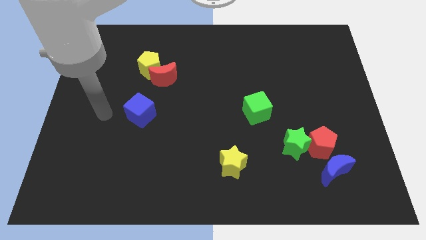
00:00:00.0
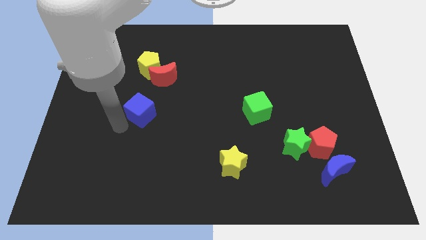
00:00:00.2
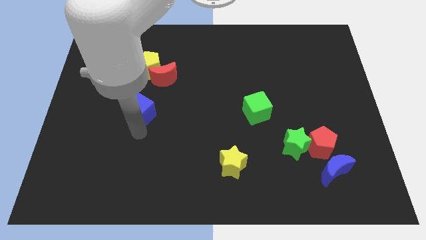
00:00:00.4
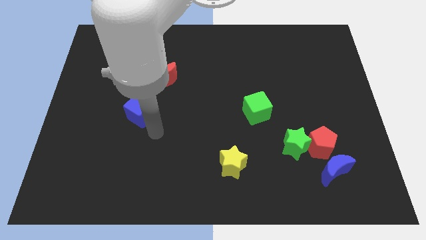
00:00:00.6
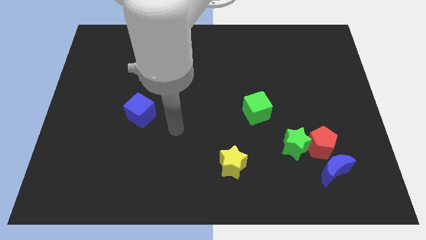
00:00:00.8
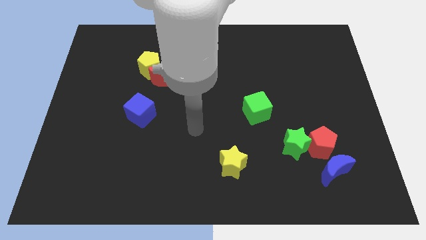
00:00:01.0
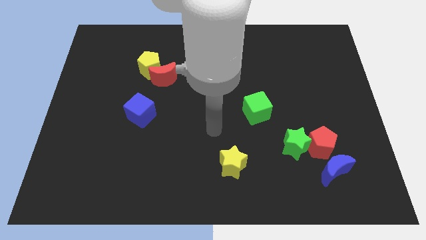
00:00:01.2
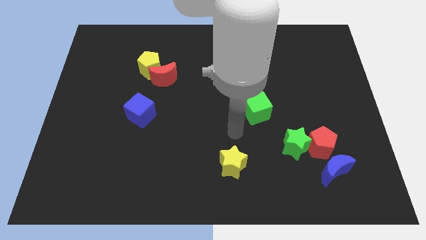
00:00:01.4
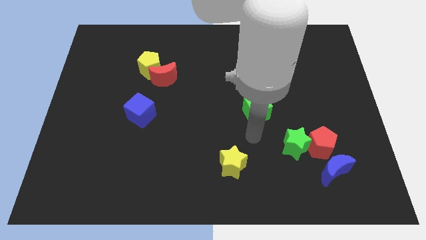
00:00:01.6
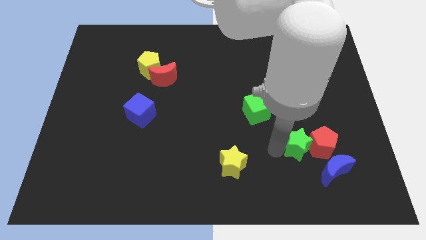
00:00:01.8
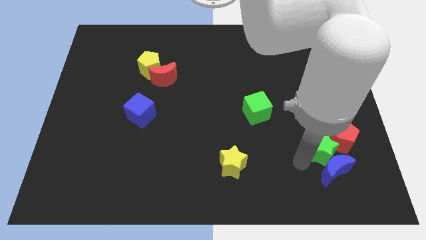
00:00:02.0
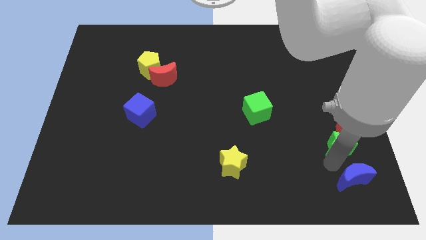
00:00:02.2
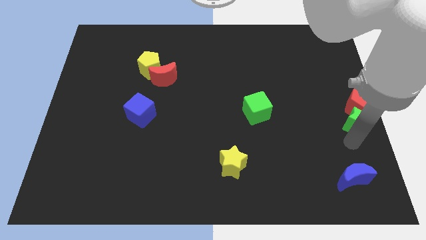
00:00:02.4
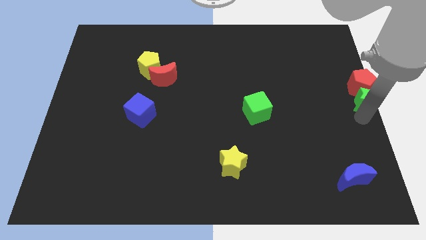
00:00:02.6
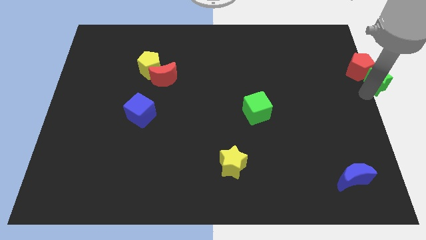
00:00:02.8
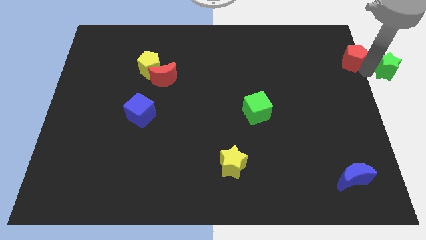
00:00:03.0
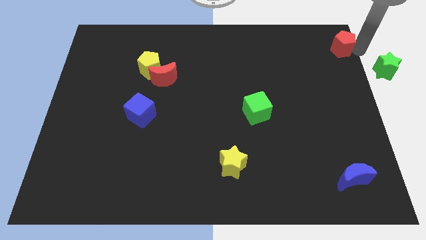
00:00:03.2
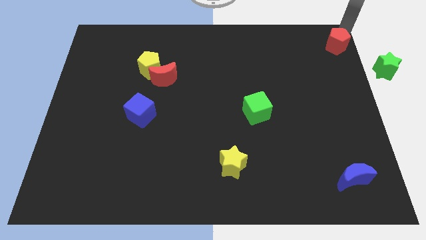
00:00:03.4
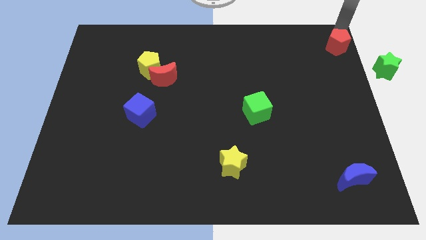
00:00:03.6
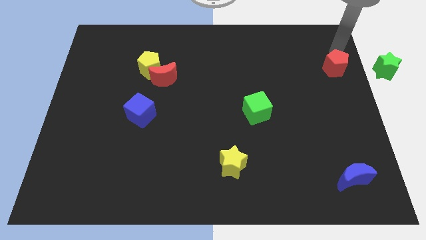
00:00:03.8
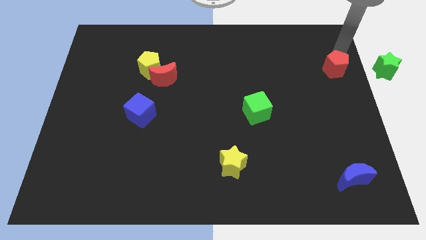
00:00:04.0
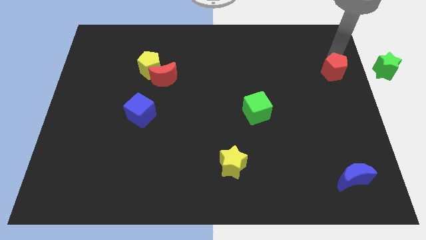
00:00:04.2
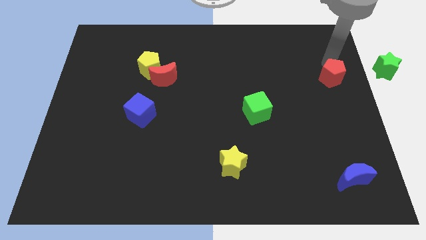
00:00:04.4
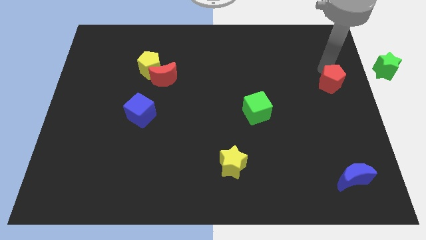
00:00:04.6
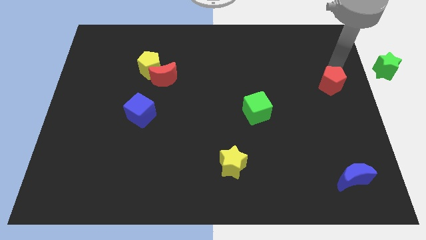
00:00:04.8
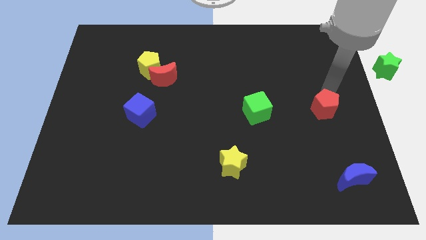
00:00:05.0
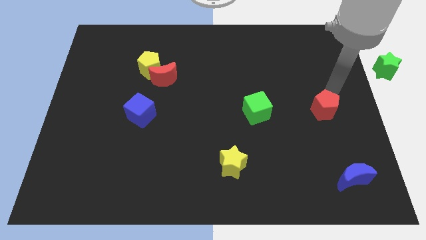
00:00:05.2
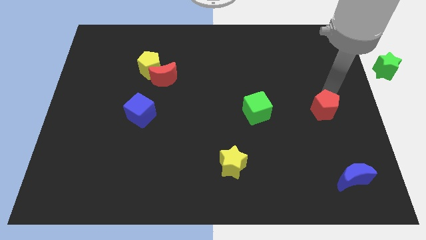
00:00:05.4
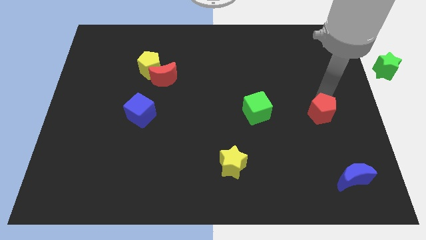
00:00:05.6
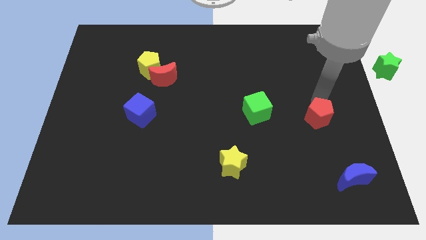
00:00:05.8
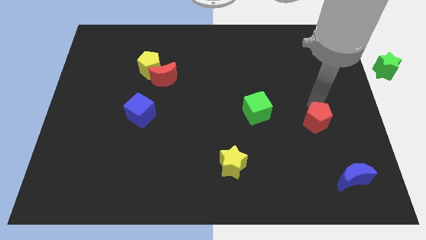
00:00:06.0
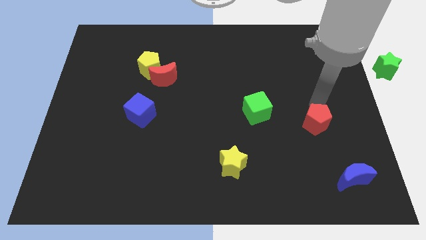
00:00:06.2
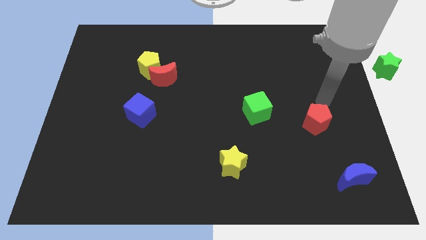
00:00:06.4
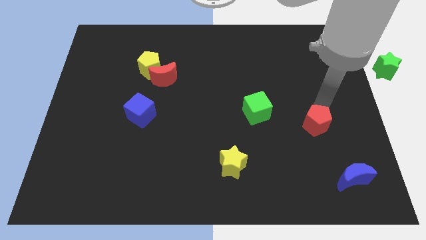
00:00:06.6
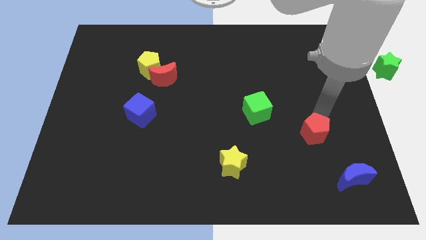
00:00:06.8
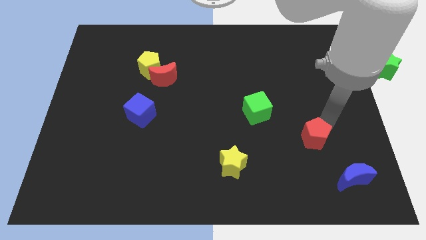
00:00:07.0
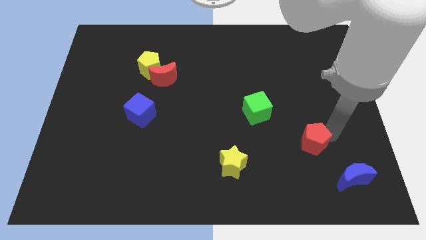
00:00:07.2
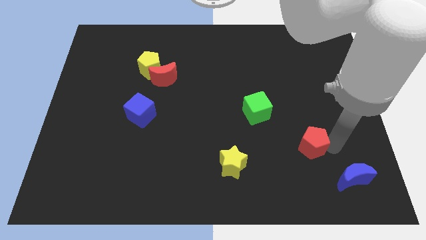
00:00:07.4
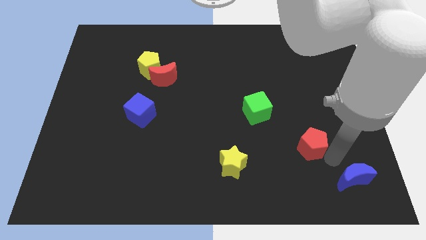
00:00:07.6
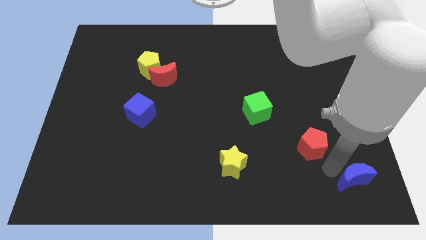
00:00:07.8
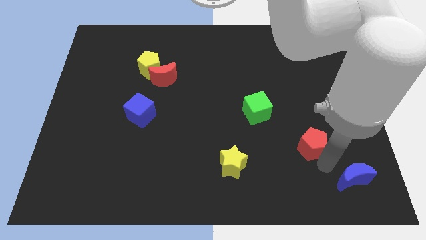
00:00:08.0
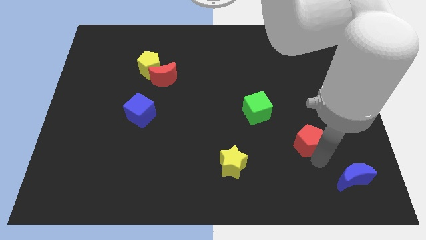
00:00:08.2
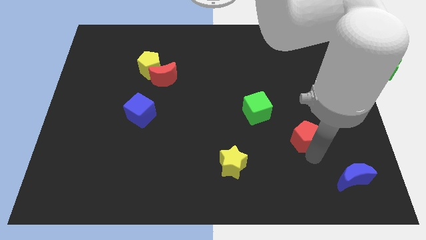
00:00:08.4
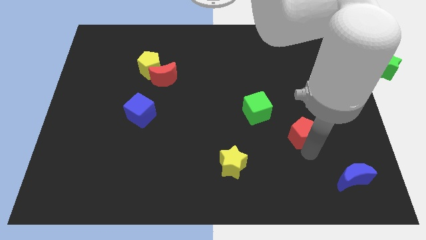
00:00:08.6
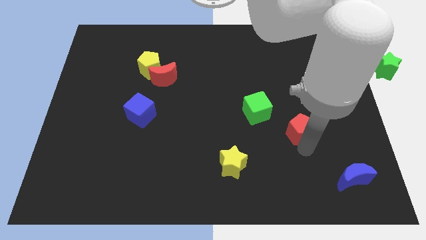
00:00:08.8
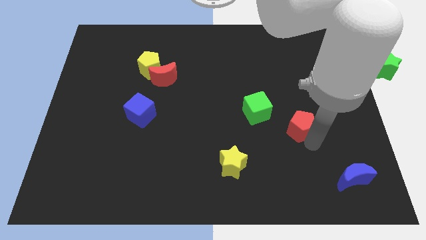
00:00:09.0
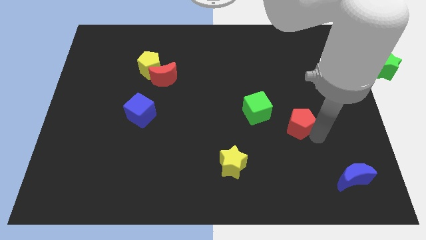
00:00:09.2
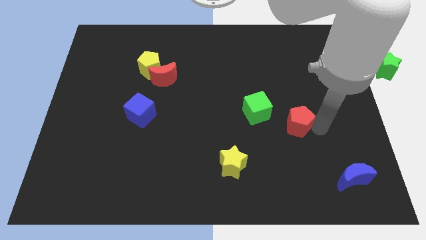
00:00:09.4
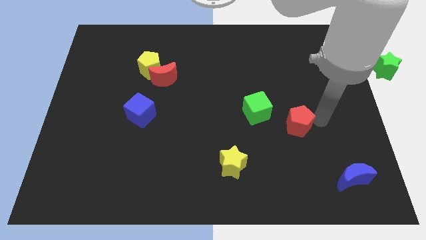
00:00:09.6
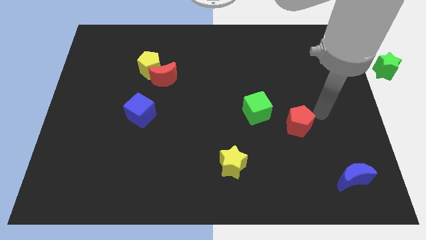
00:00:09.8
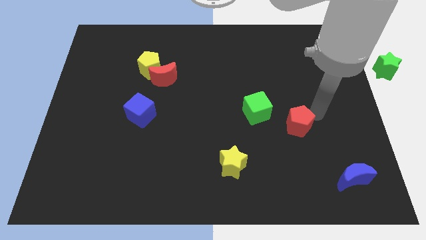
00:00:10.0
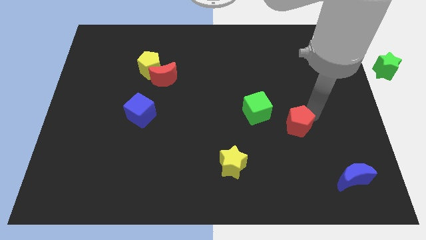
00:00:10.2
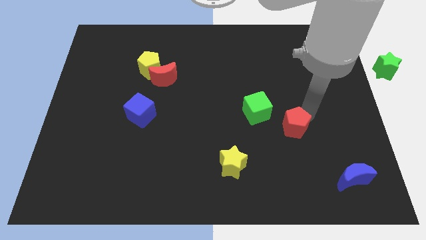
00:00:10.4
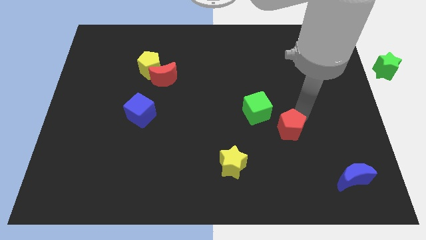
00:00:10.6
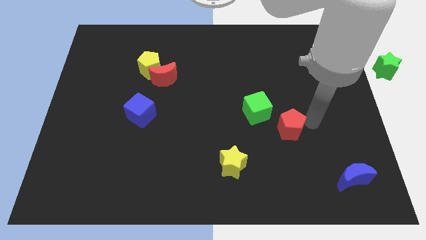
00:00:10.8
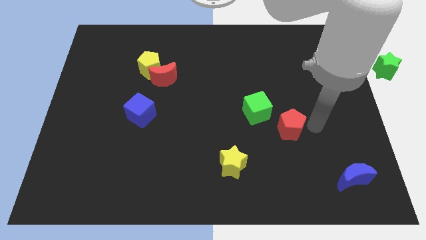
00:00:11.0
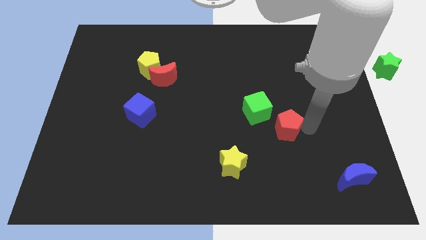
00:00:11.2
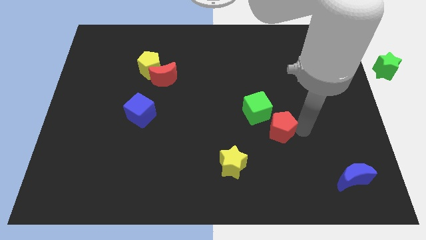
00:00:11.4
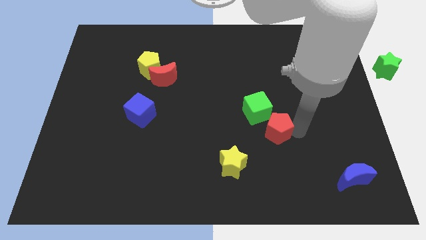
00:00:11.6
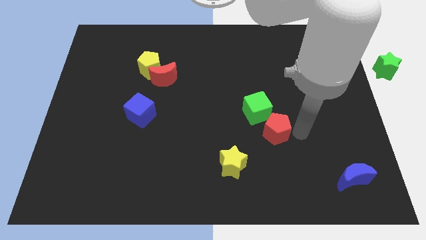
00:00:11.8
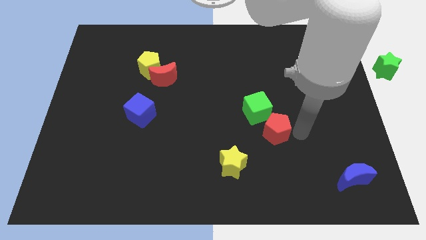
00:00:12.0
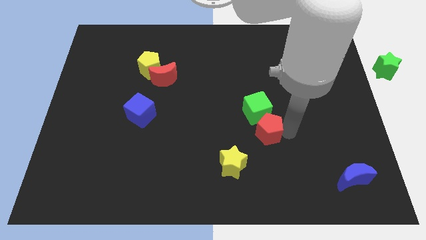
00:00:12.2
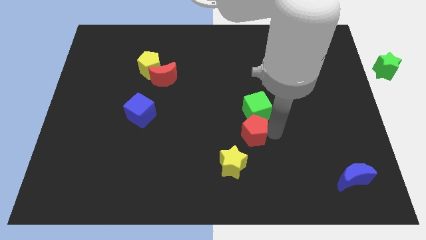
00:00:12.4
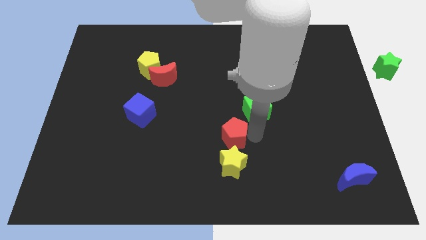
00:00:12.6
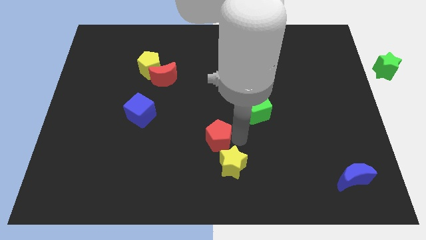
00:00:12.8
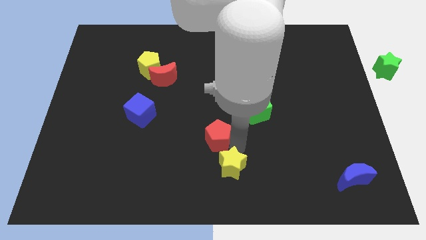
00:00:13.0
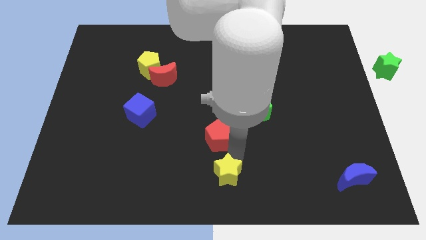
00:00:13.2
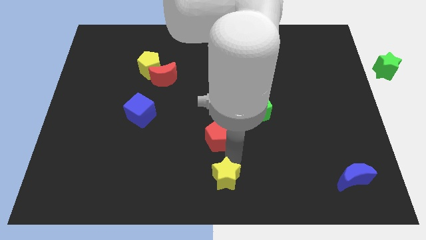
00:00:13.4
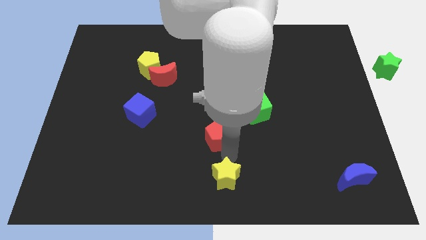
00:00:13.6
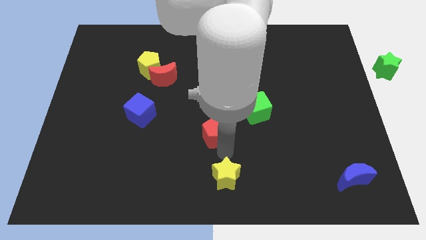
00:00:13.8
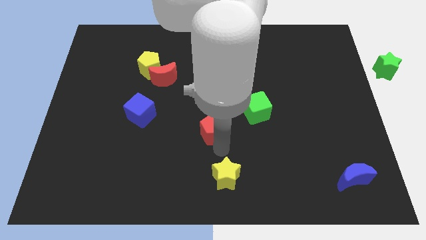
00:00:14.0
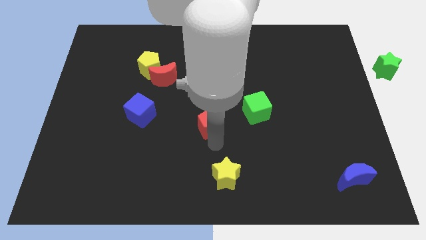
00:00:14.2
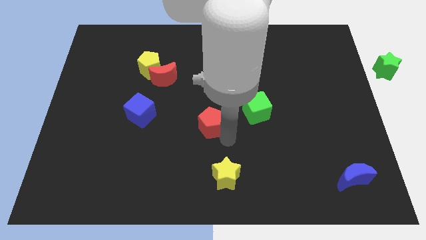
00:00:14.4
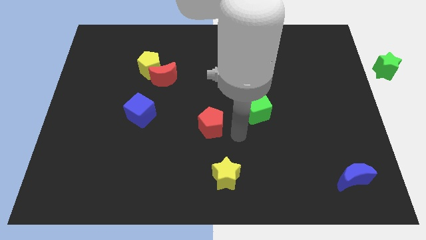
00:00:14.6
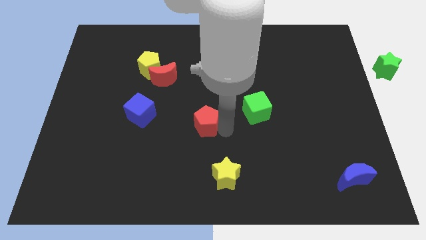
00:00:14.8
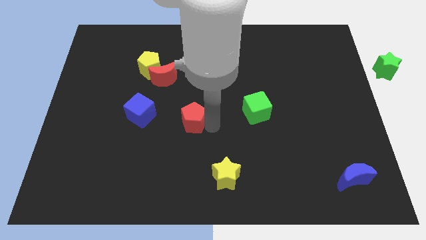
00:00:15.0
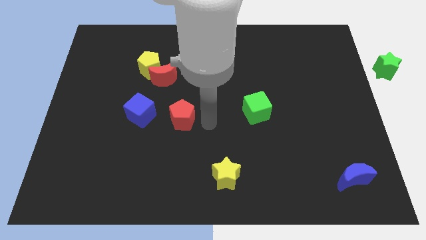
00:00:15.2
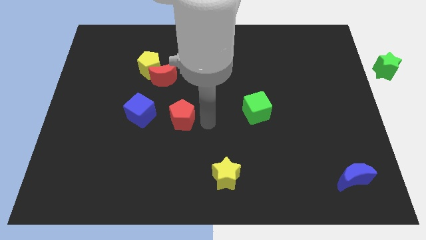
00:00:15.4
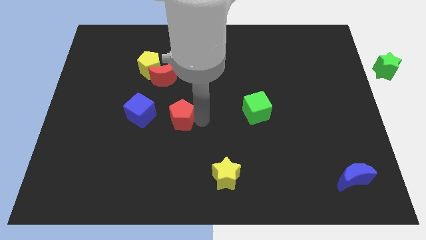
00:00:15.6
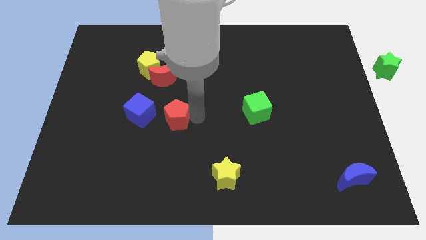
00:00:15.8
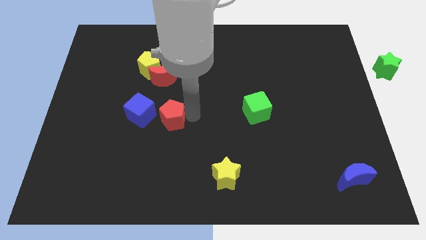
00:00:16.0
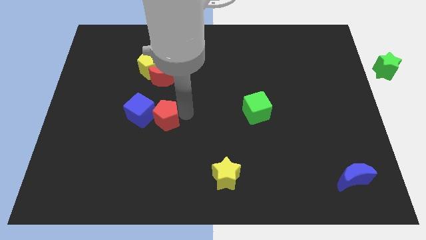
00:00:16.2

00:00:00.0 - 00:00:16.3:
push the red pentagon towards the blue cube
